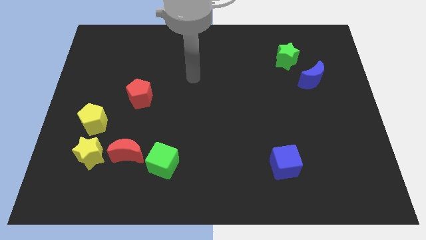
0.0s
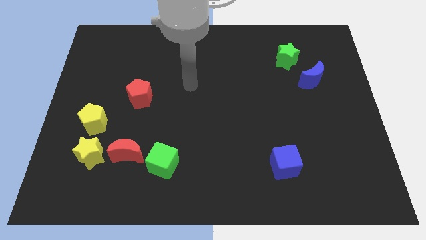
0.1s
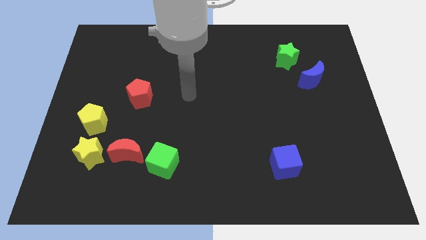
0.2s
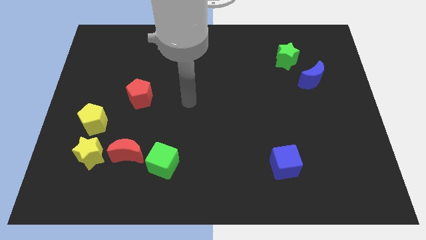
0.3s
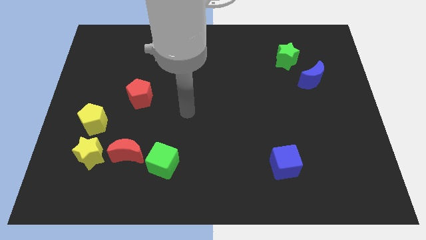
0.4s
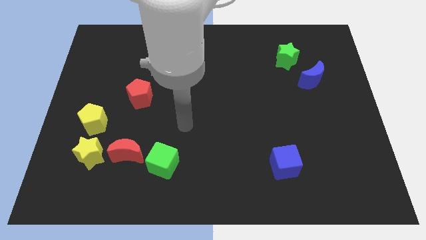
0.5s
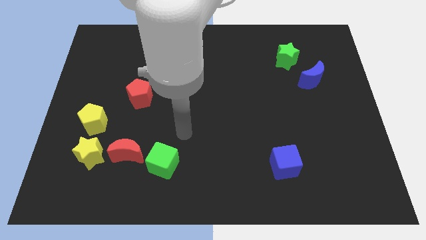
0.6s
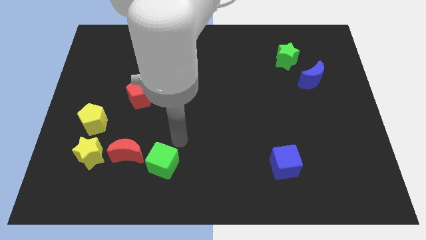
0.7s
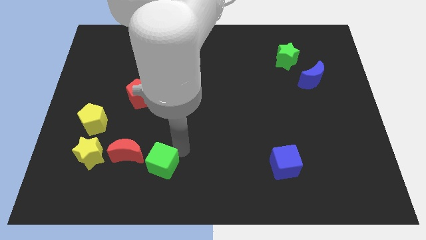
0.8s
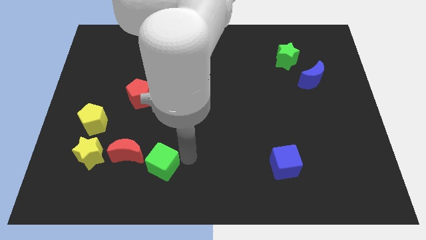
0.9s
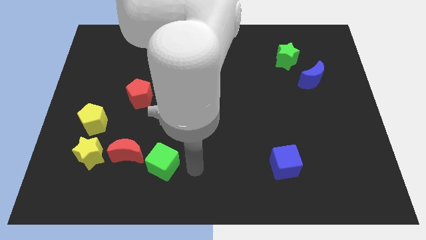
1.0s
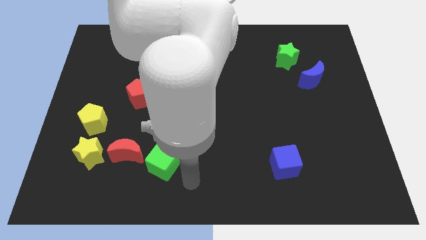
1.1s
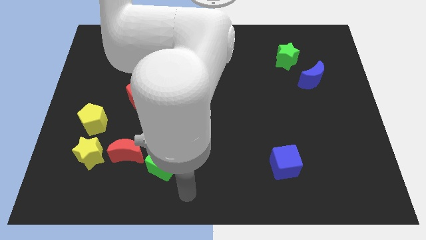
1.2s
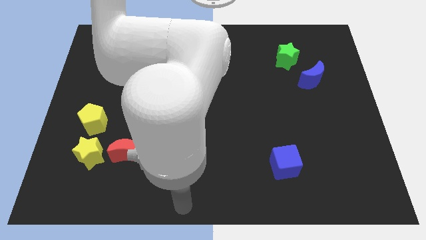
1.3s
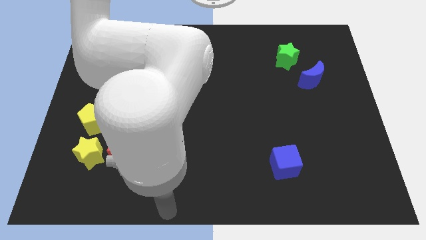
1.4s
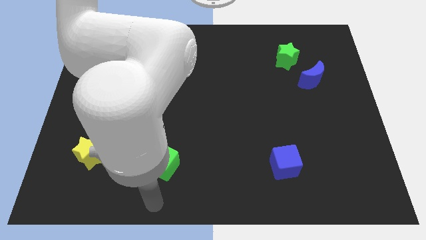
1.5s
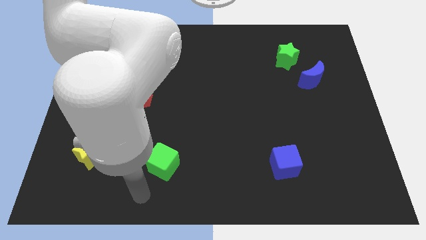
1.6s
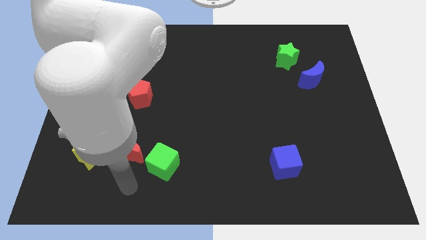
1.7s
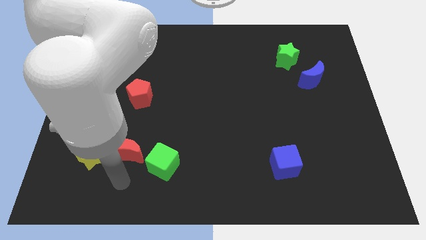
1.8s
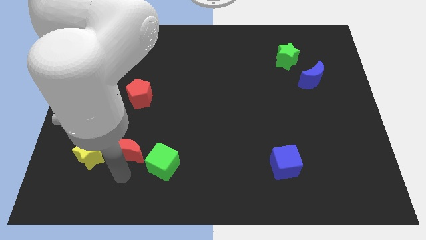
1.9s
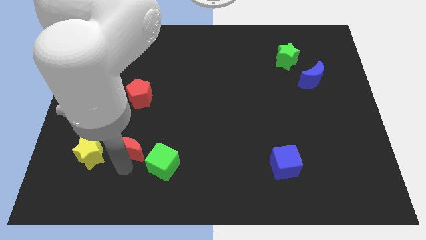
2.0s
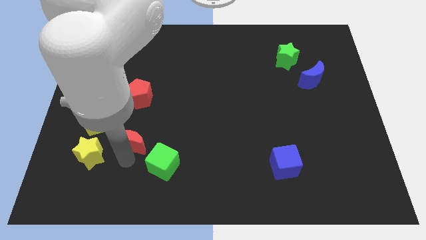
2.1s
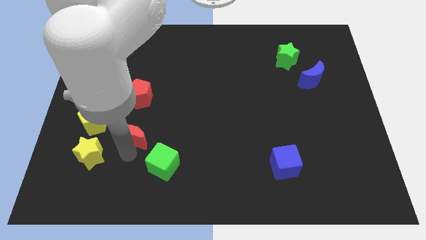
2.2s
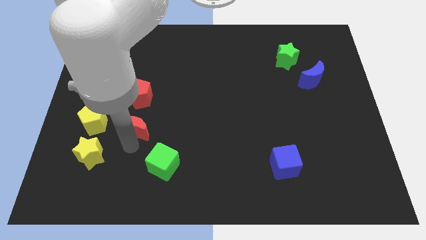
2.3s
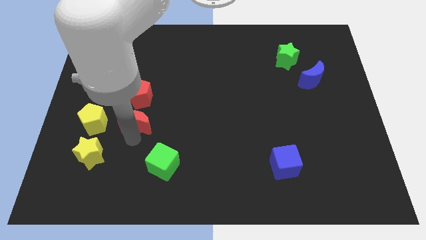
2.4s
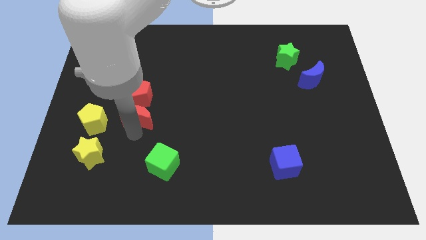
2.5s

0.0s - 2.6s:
separate the red moon from the yellow star and green cube

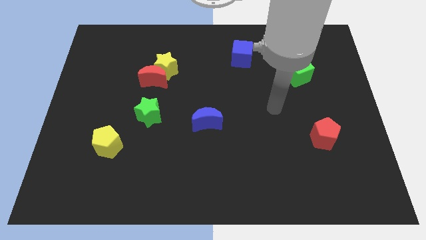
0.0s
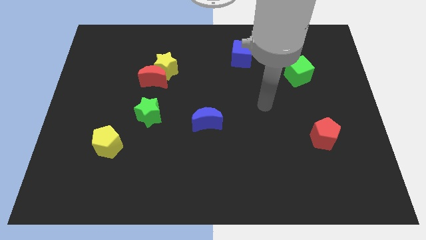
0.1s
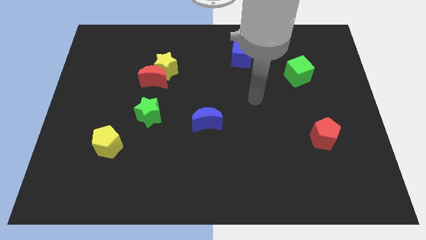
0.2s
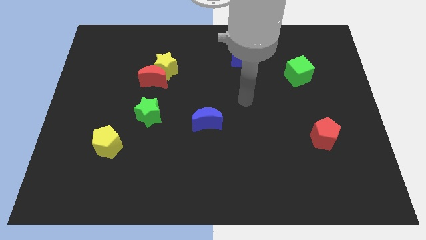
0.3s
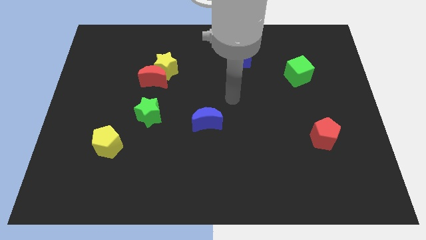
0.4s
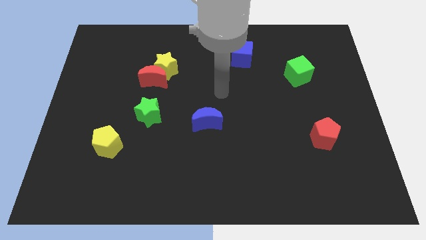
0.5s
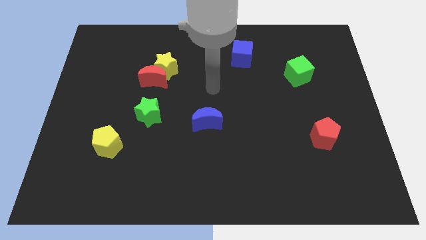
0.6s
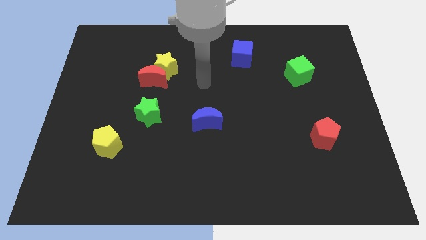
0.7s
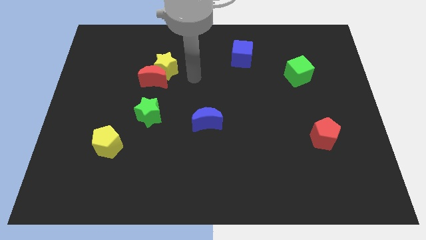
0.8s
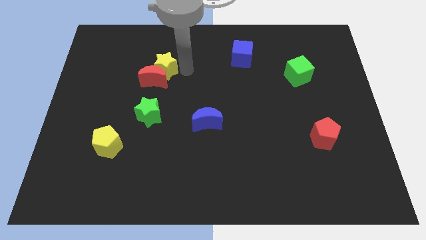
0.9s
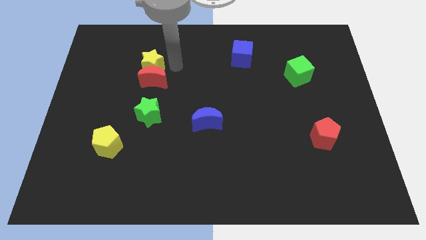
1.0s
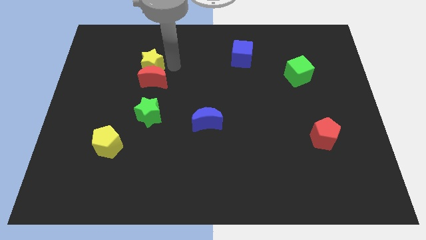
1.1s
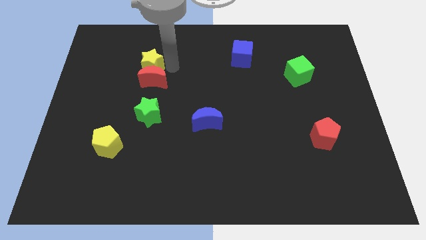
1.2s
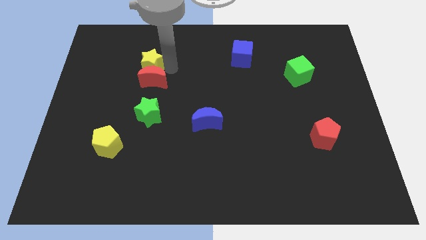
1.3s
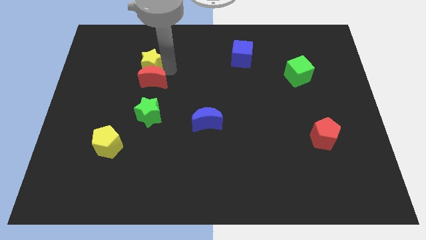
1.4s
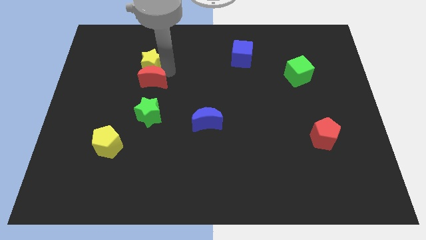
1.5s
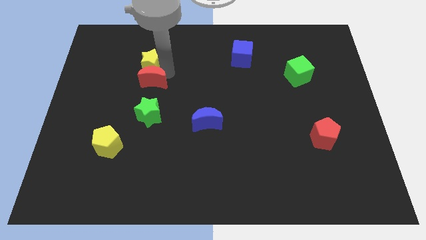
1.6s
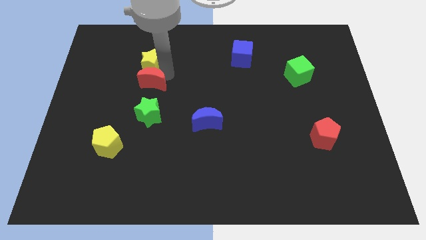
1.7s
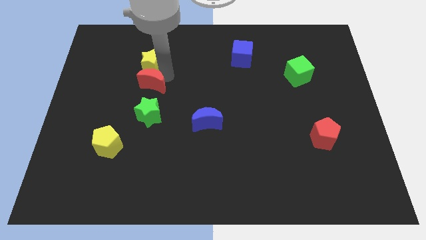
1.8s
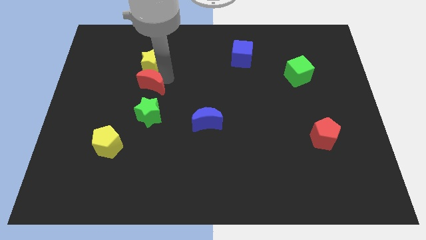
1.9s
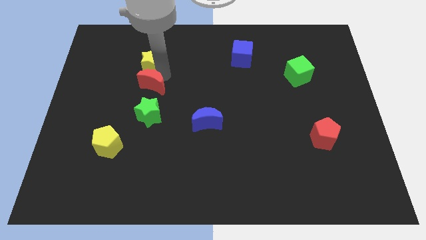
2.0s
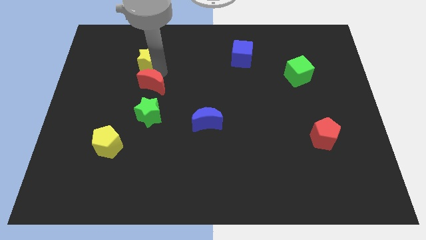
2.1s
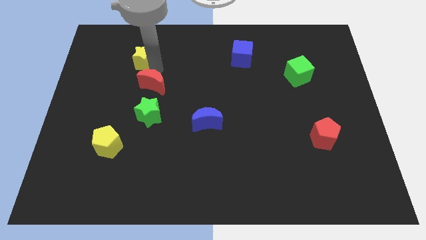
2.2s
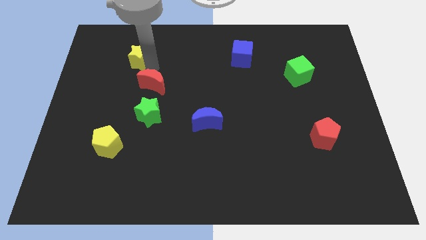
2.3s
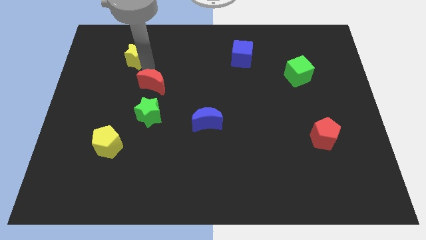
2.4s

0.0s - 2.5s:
separate the red moon from the yellow star

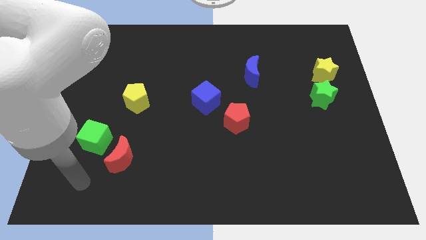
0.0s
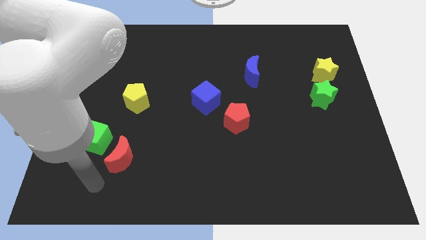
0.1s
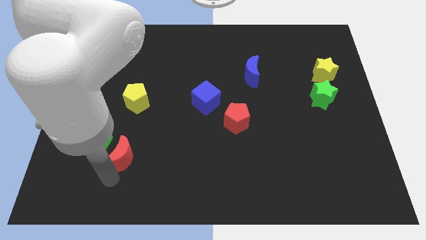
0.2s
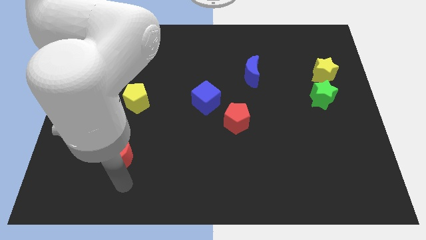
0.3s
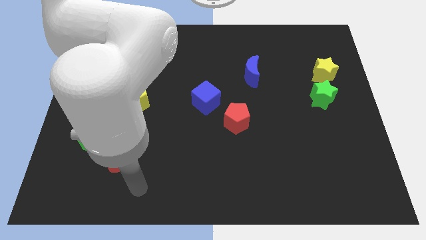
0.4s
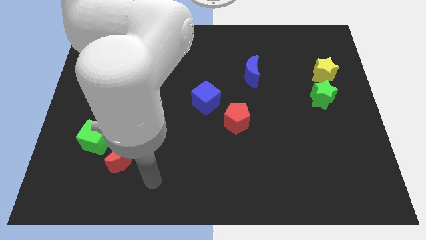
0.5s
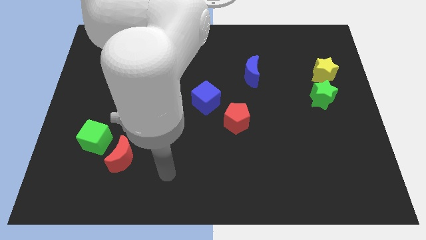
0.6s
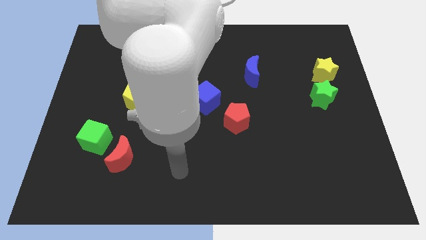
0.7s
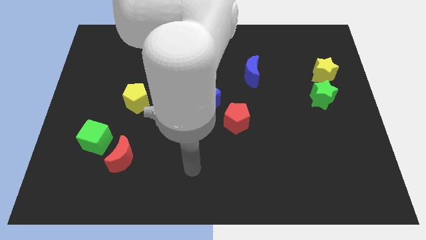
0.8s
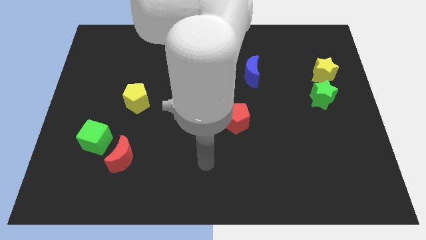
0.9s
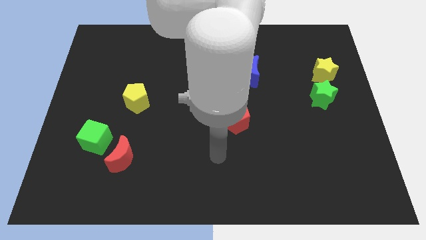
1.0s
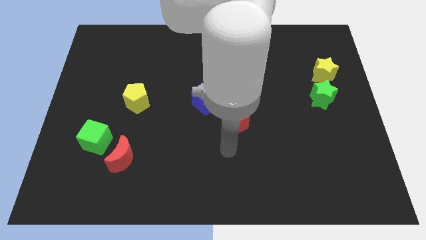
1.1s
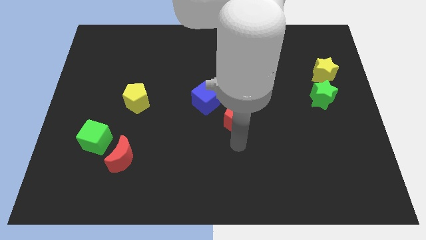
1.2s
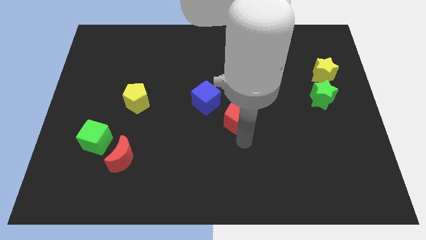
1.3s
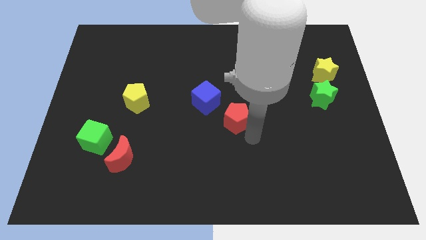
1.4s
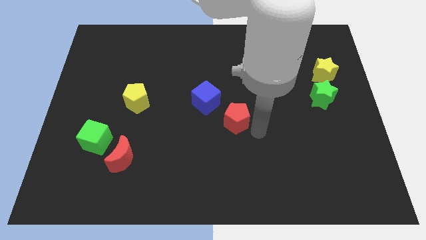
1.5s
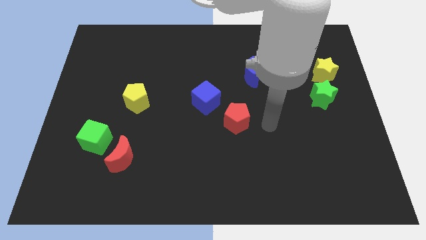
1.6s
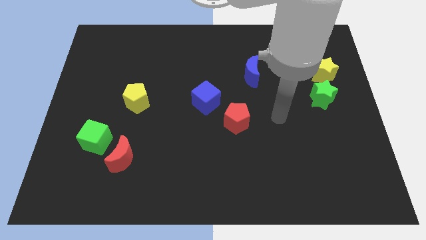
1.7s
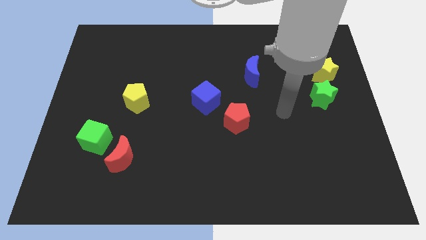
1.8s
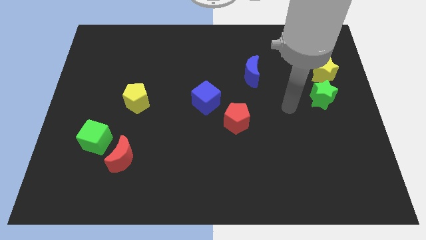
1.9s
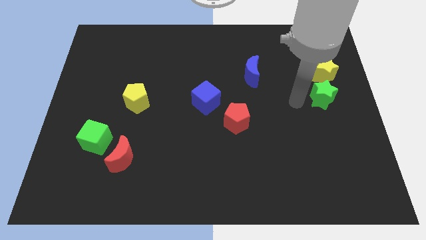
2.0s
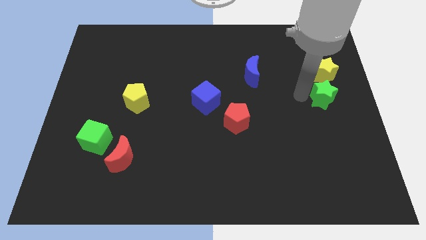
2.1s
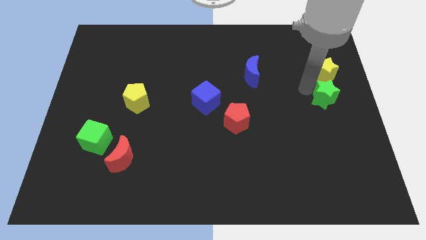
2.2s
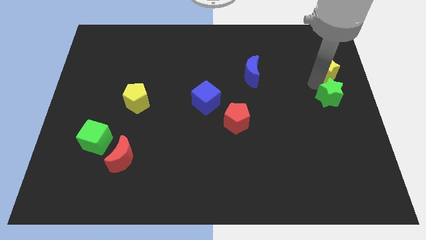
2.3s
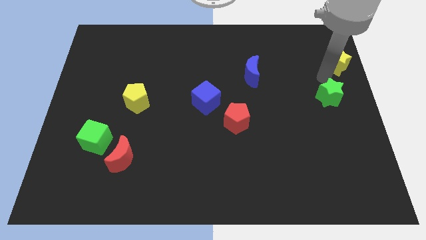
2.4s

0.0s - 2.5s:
separate the green star from the yellow star

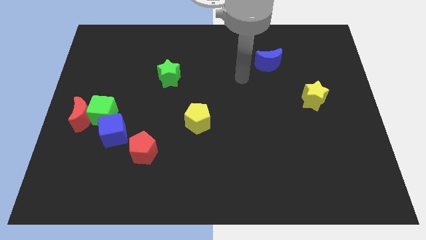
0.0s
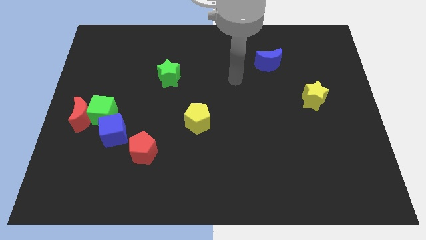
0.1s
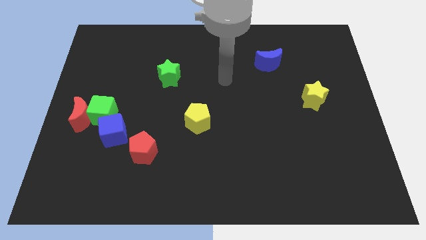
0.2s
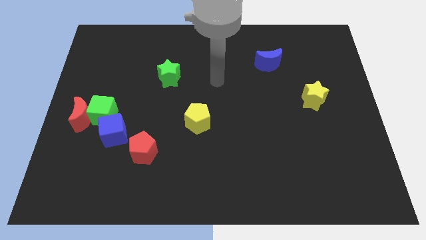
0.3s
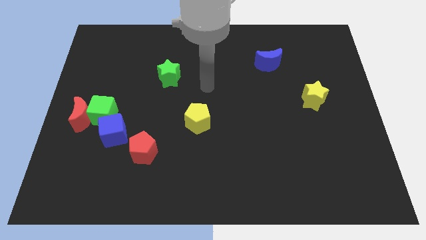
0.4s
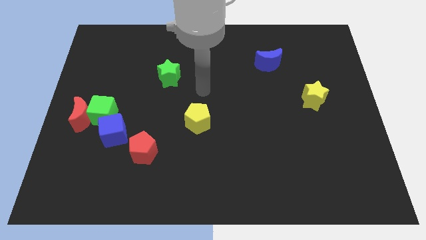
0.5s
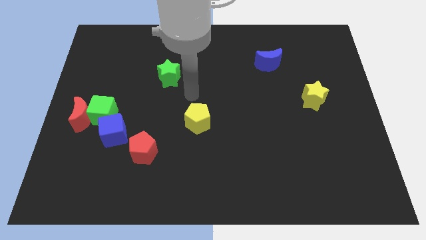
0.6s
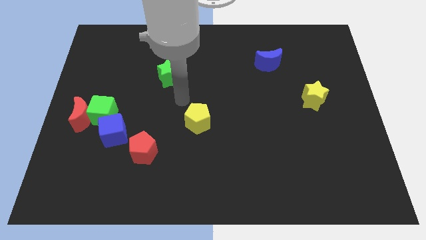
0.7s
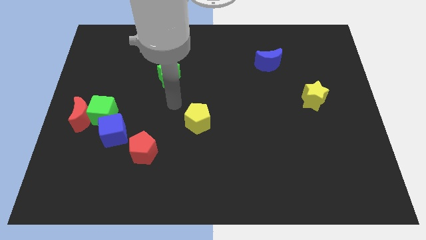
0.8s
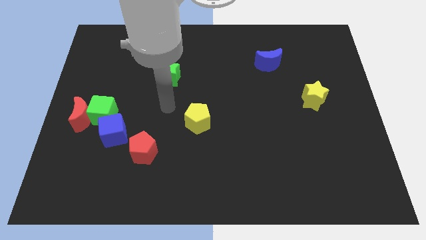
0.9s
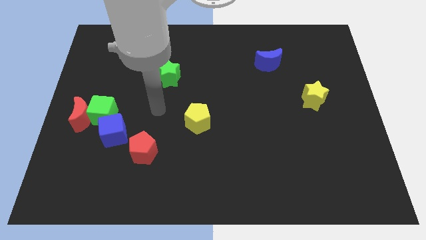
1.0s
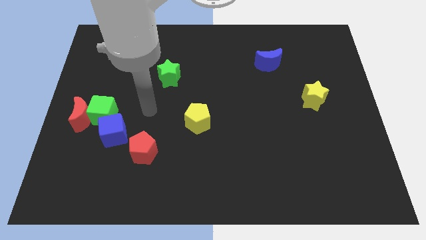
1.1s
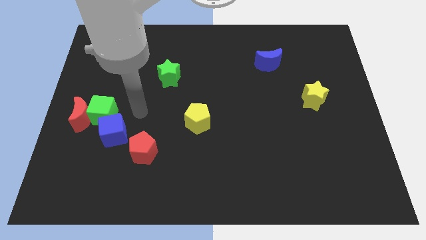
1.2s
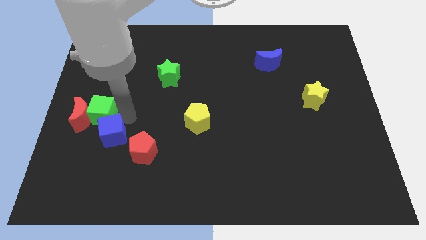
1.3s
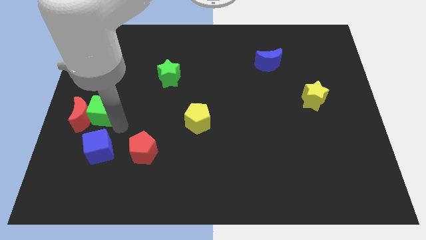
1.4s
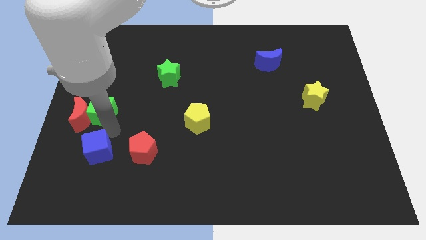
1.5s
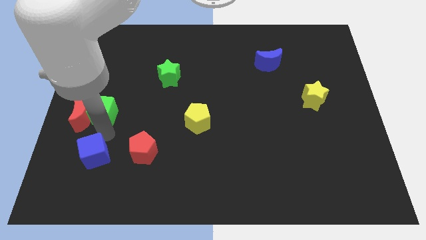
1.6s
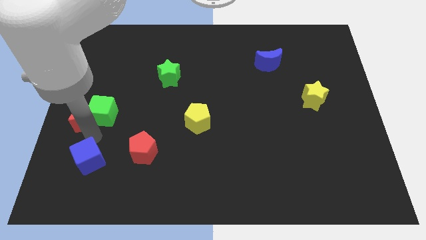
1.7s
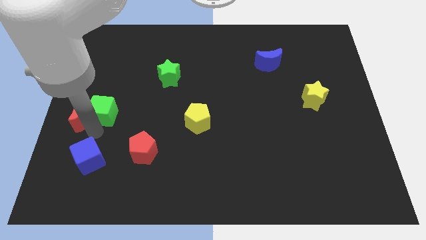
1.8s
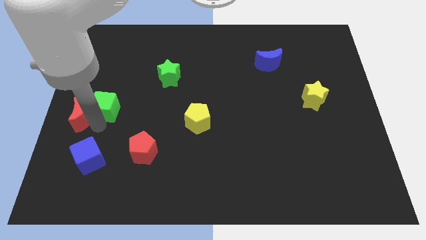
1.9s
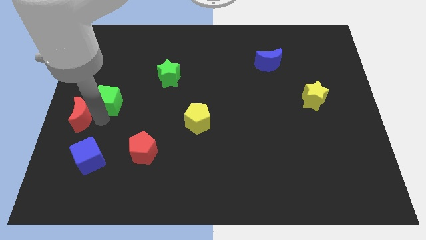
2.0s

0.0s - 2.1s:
separate the green cube from the red moon and blue cube
